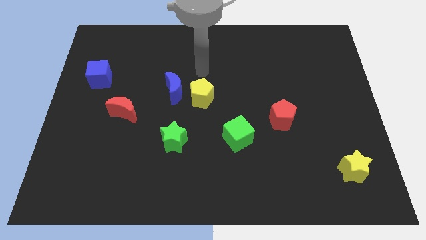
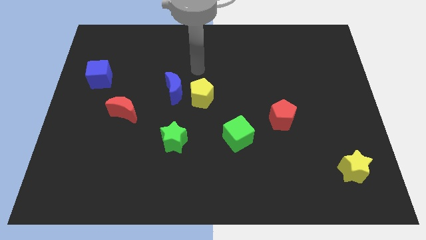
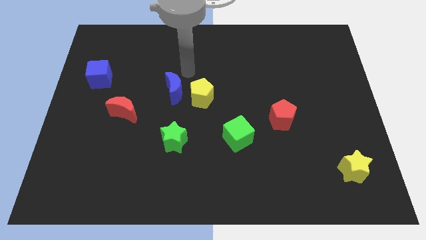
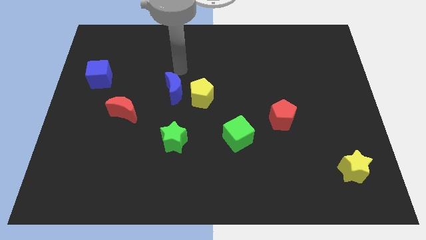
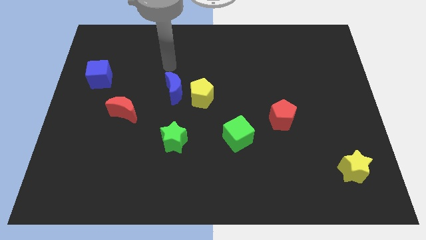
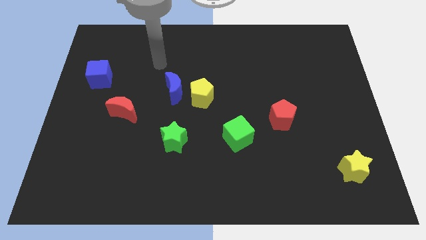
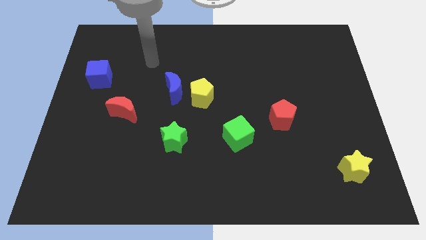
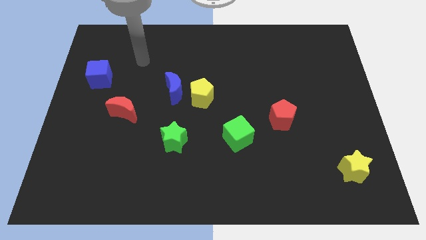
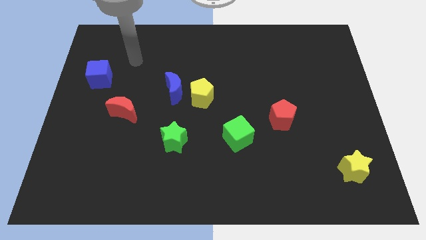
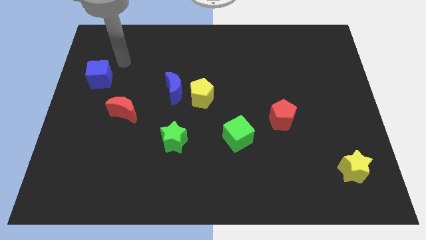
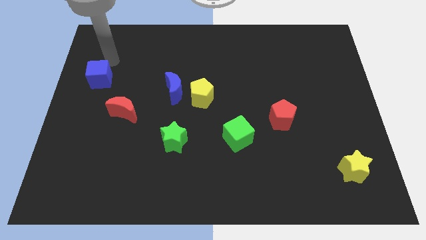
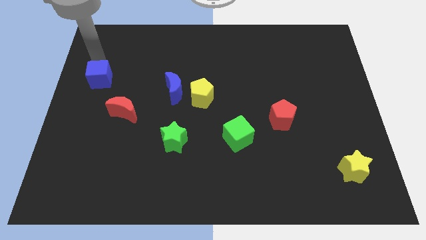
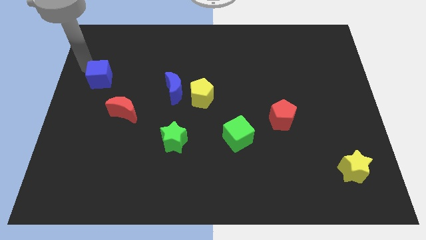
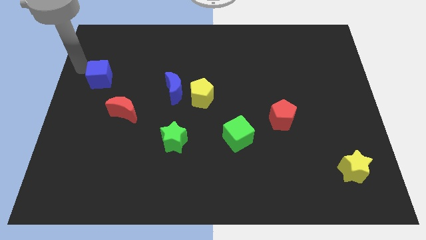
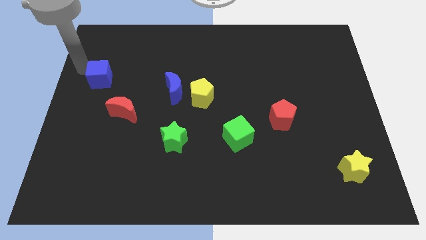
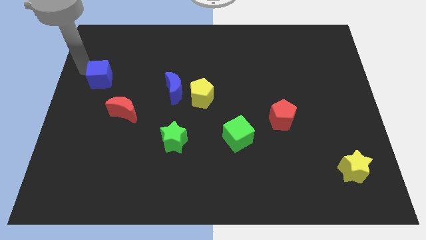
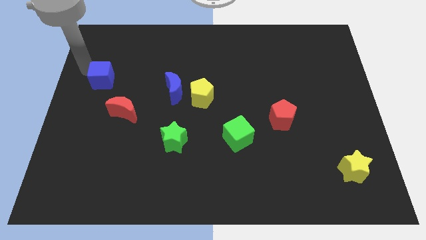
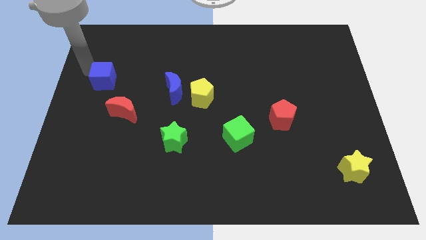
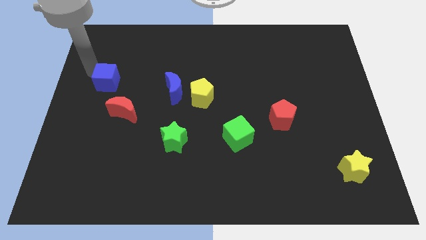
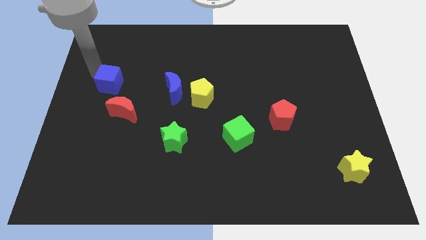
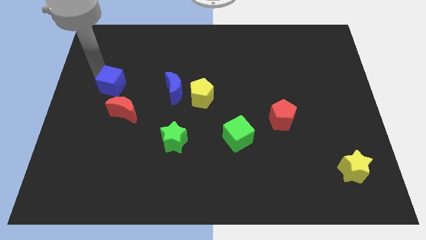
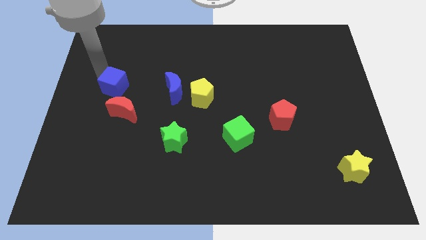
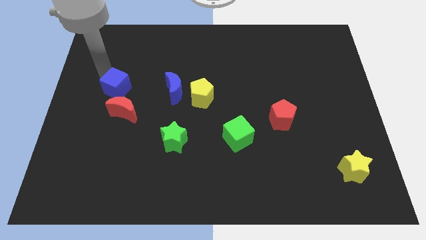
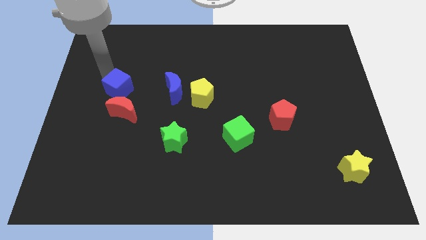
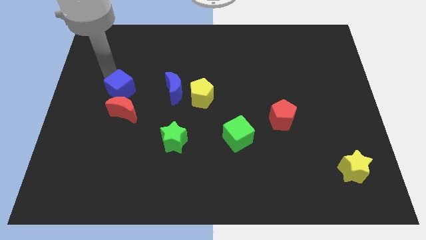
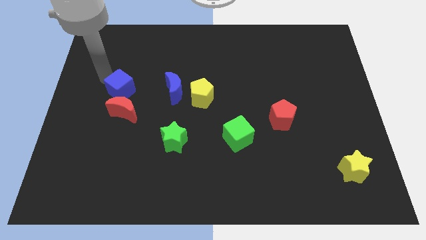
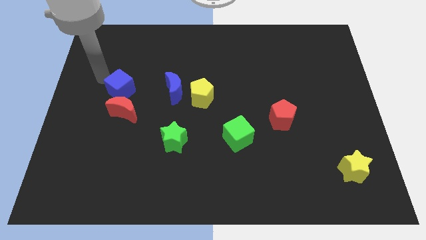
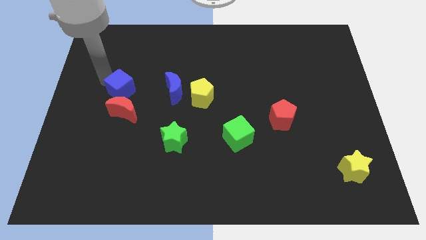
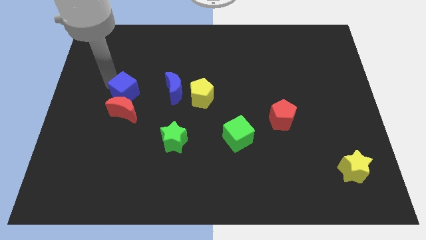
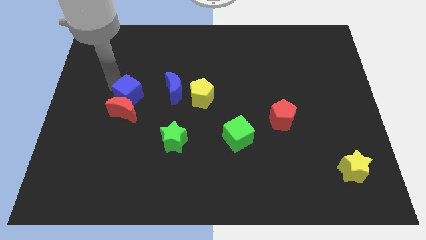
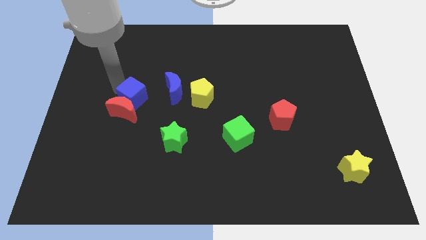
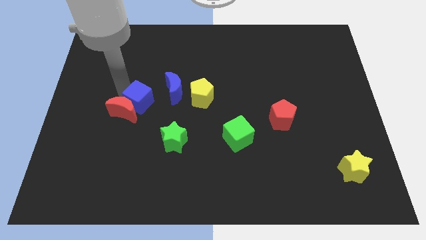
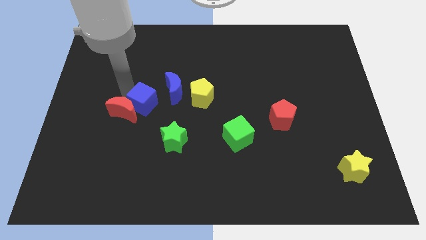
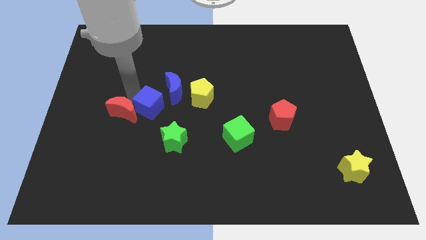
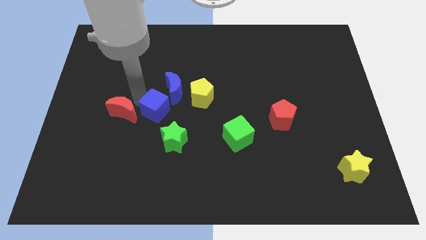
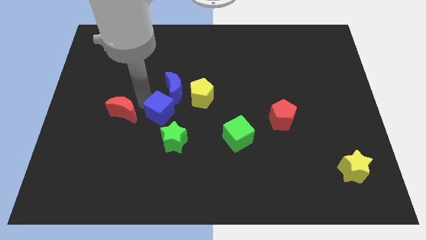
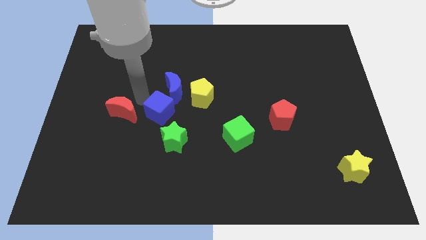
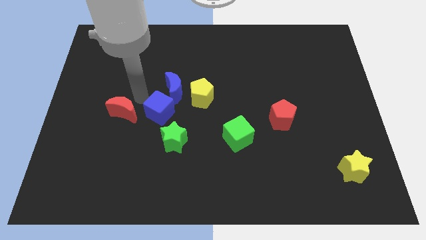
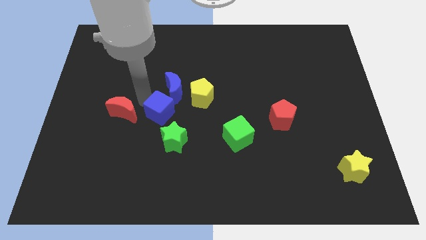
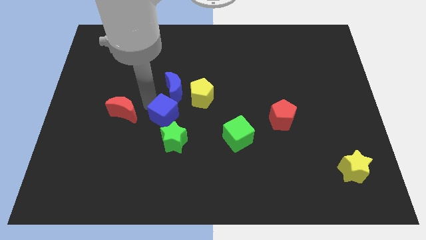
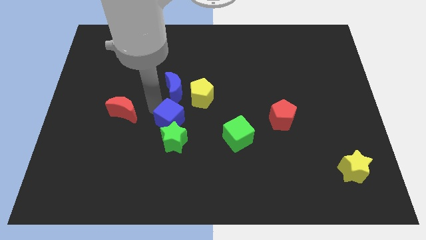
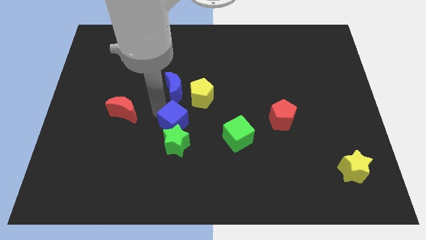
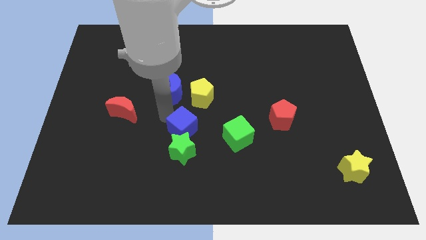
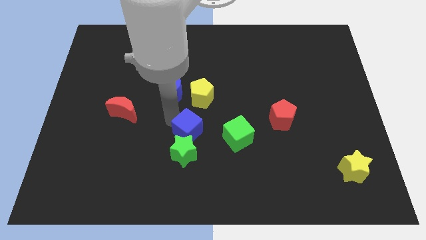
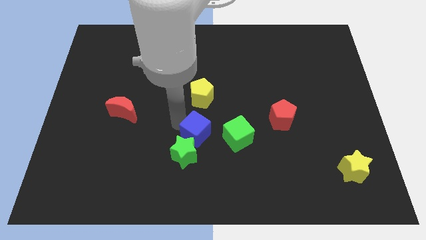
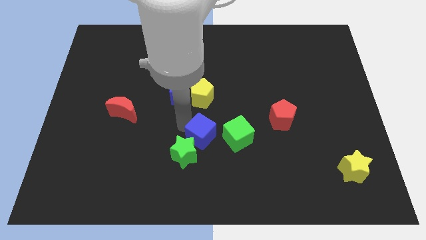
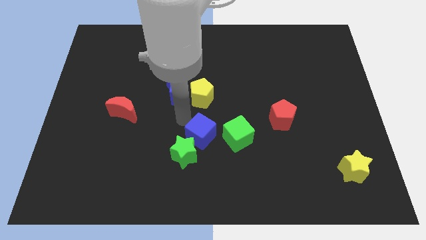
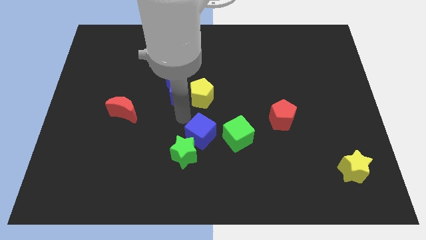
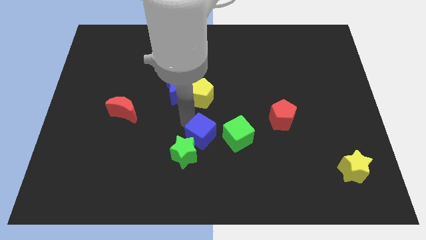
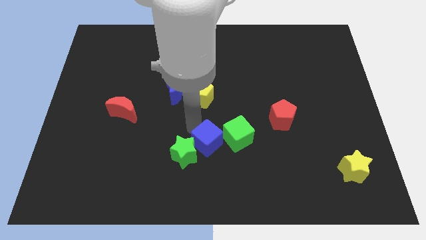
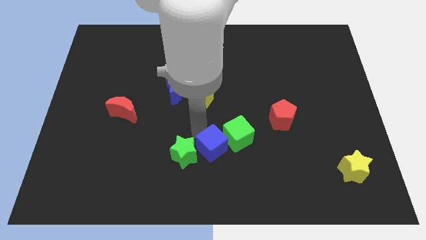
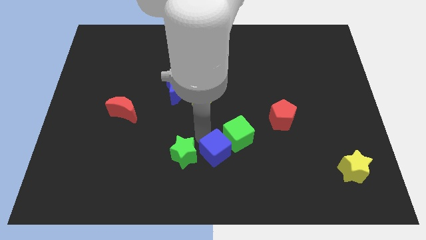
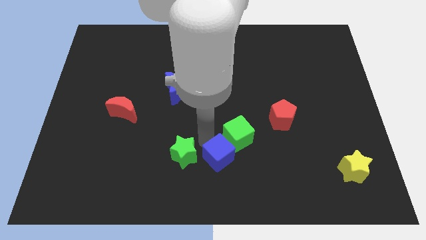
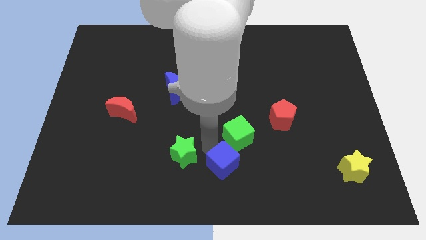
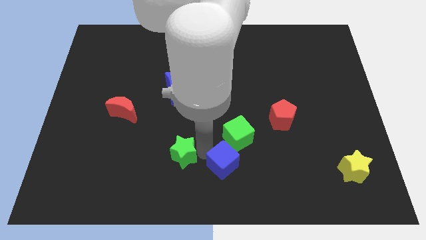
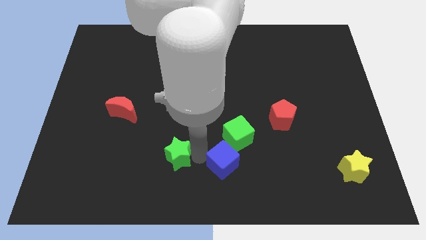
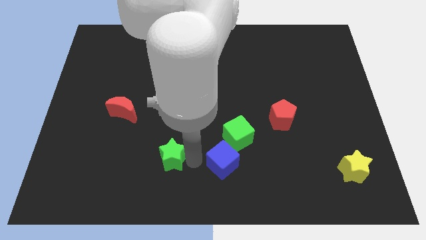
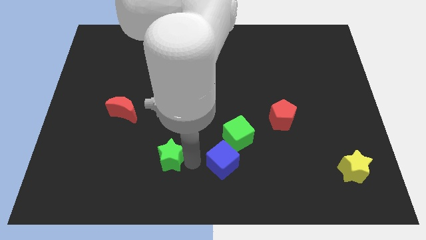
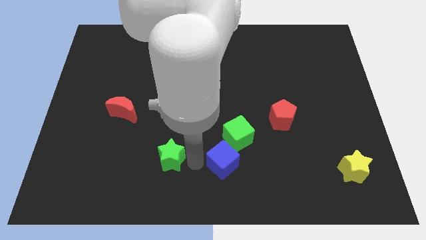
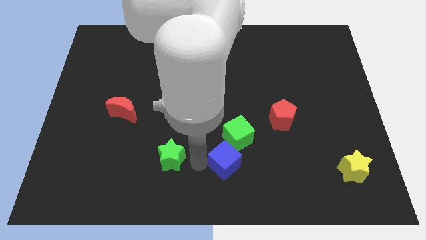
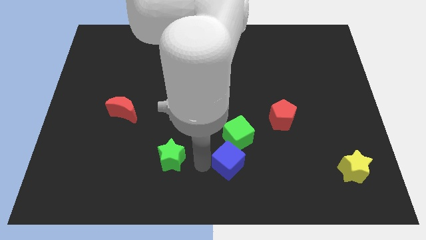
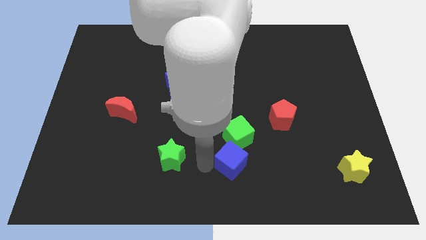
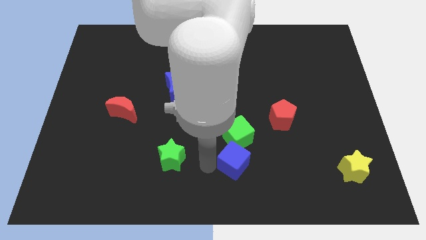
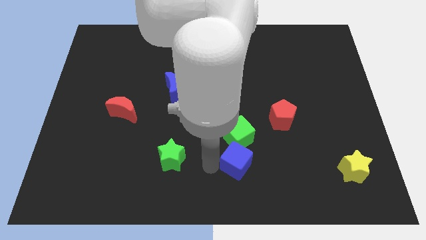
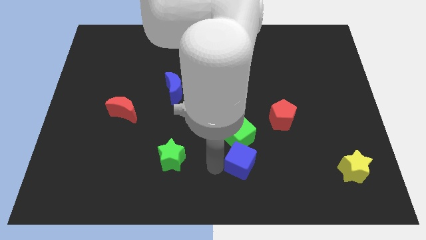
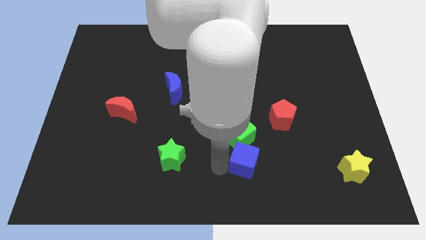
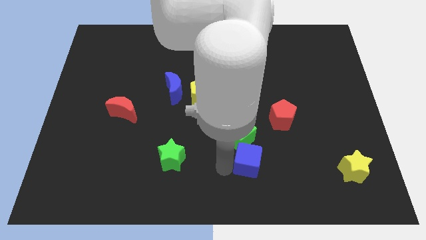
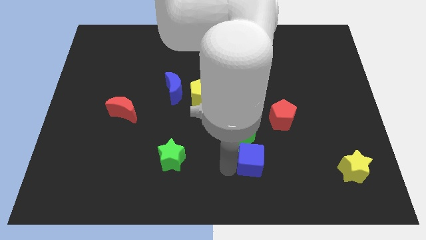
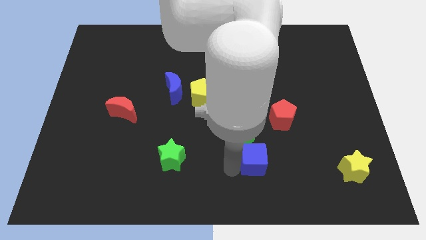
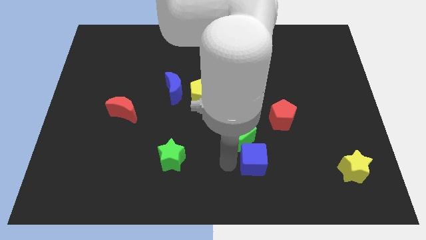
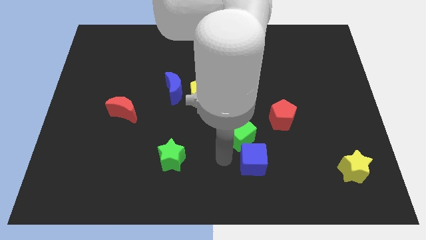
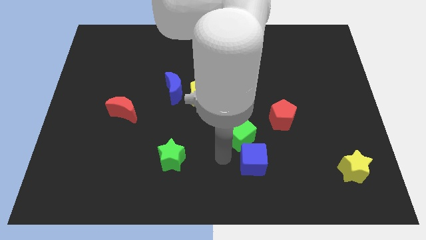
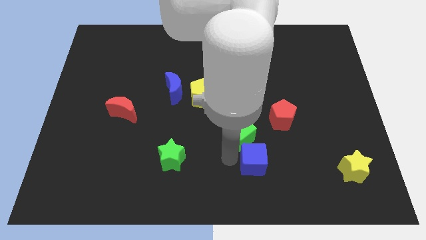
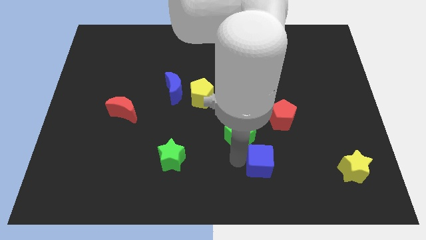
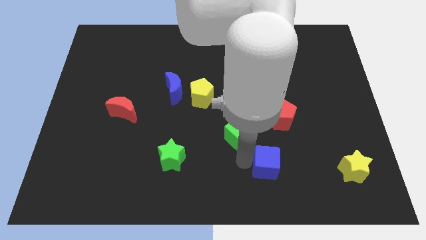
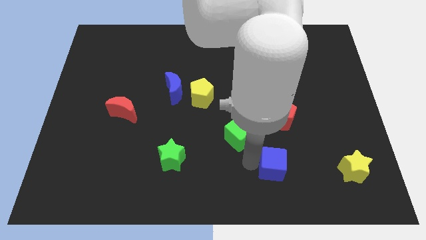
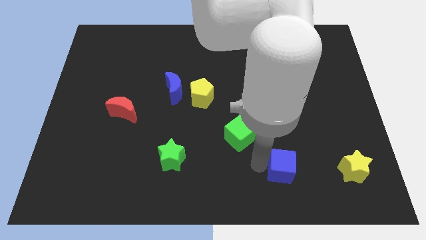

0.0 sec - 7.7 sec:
push the blue cube to the left side of the yellow star

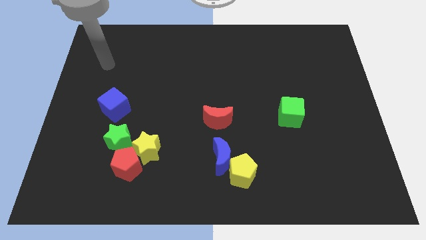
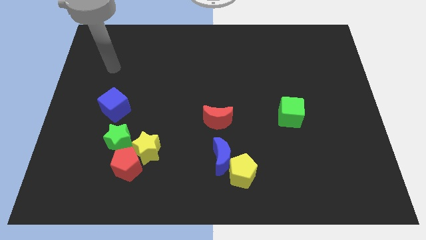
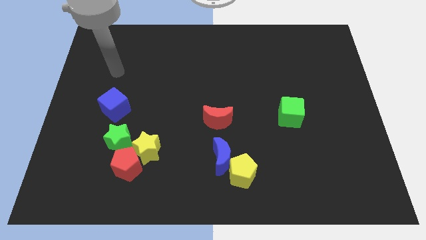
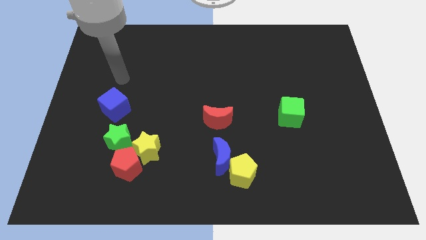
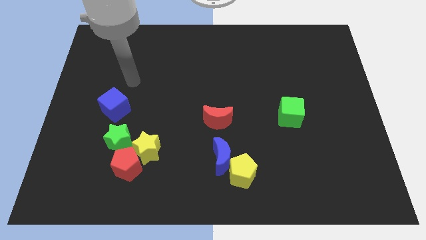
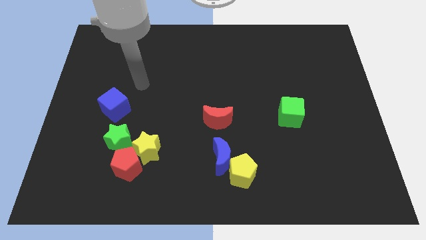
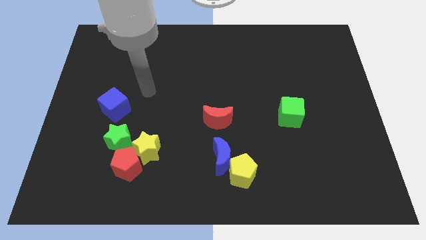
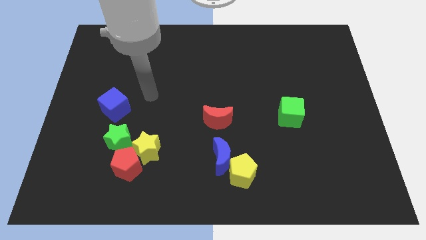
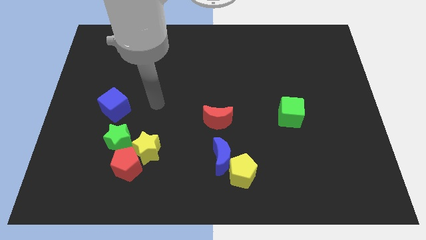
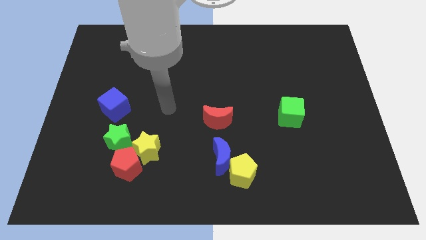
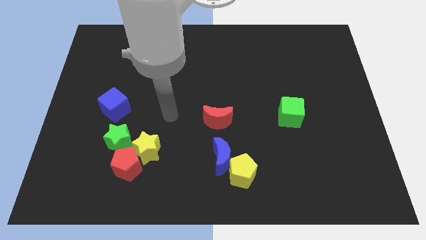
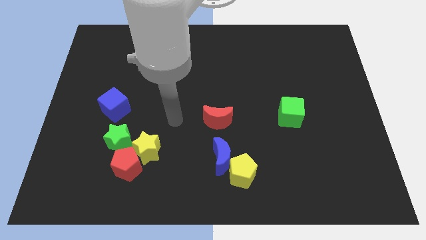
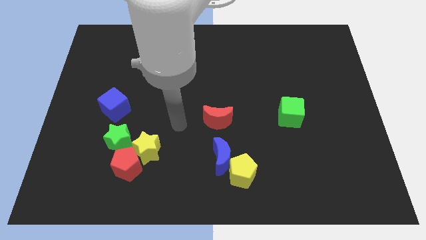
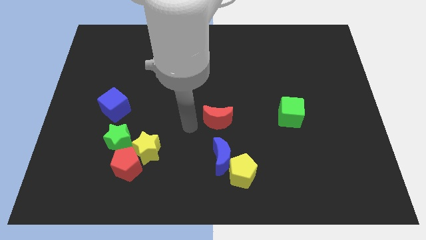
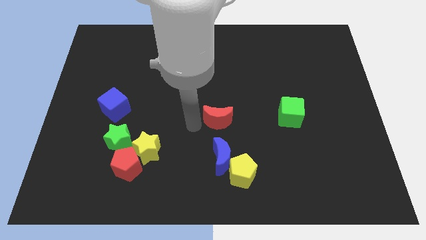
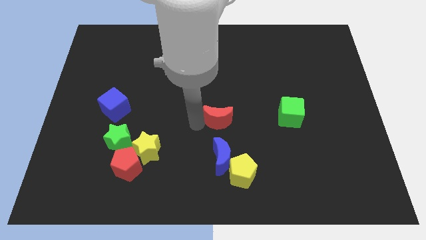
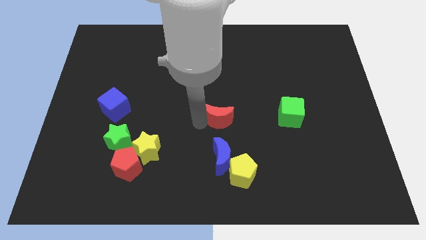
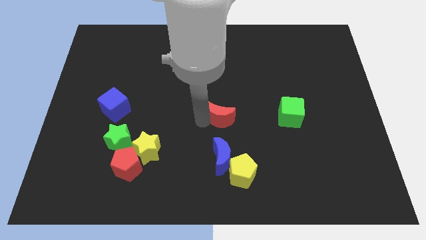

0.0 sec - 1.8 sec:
push the red moon to the left of the green cube
